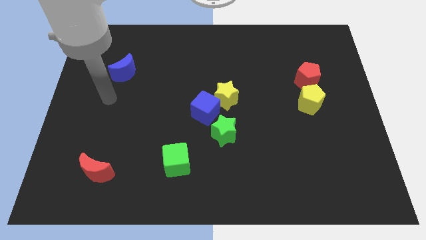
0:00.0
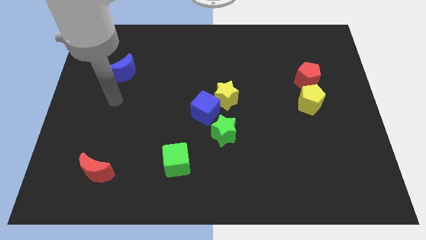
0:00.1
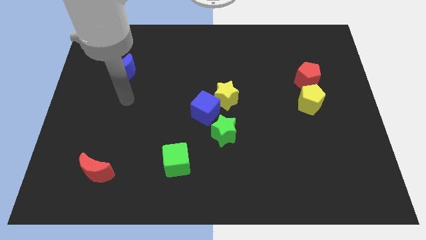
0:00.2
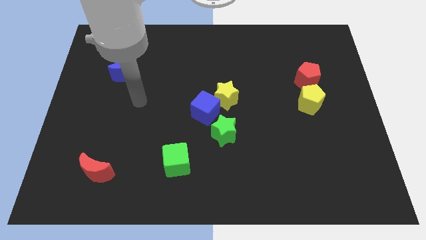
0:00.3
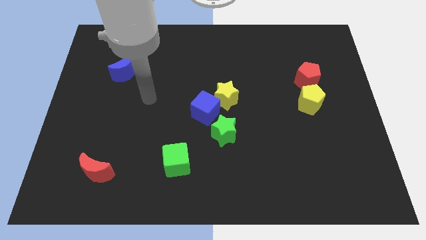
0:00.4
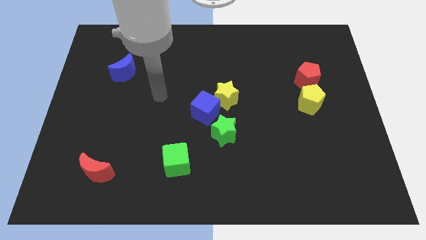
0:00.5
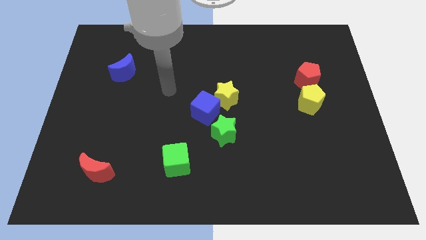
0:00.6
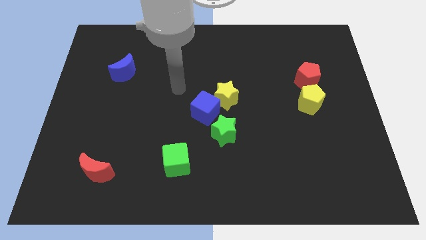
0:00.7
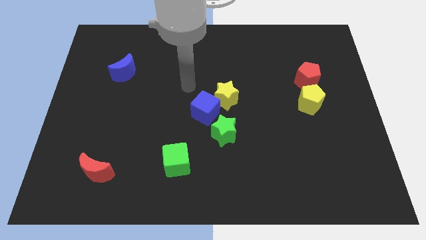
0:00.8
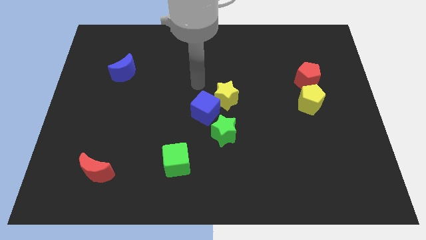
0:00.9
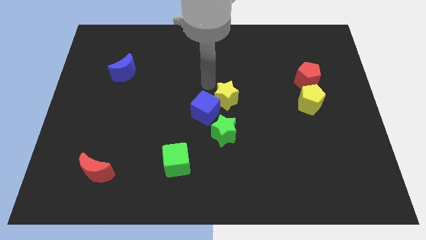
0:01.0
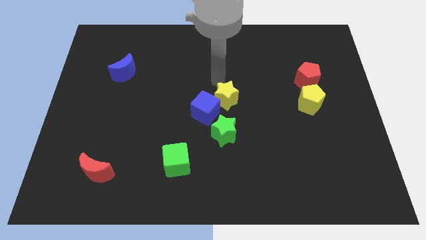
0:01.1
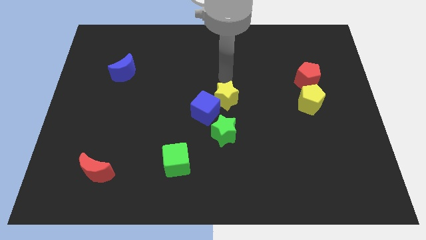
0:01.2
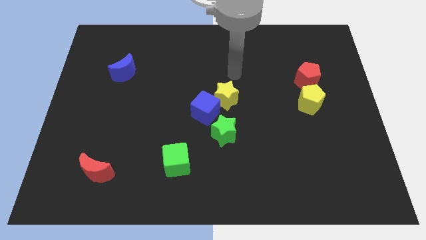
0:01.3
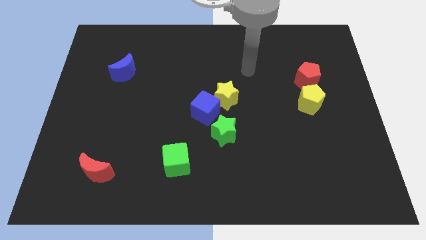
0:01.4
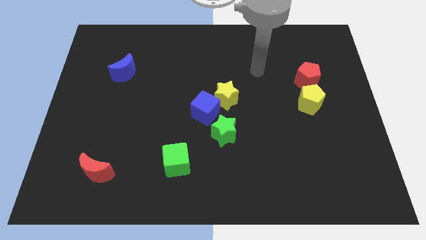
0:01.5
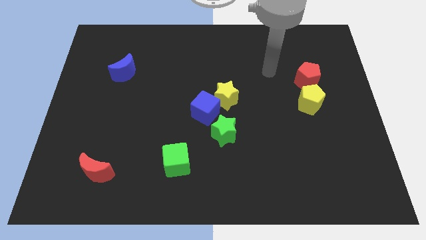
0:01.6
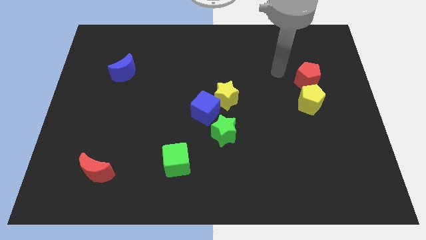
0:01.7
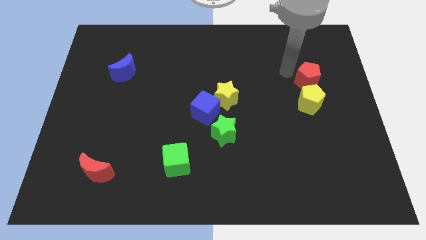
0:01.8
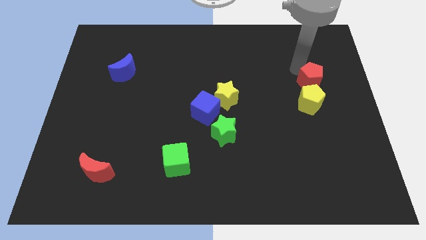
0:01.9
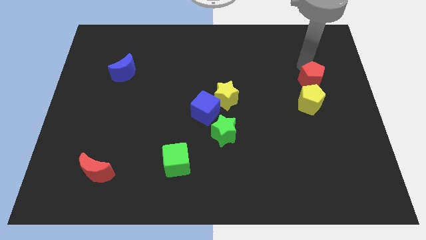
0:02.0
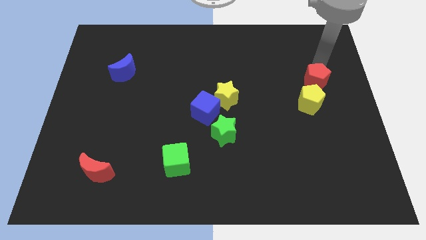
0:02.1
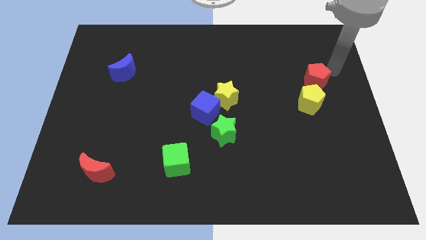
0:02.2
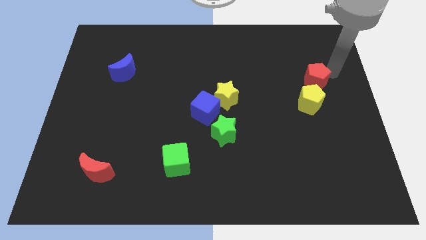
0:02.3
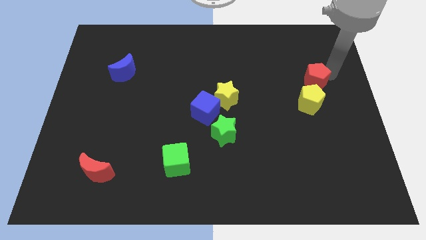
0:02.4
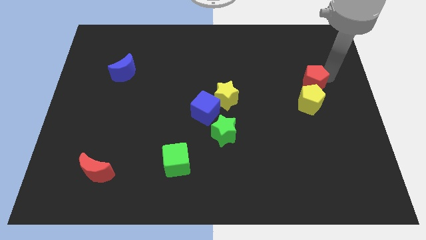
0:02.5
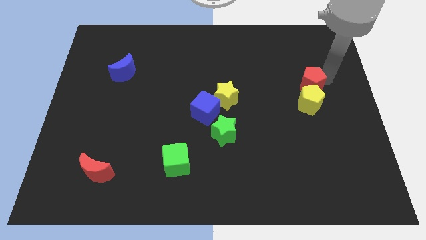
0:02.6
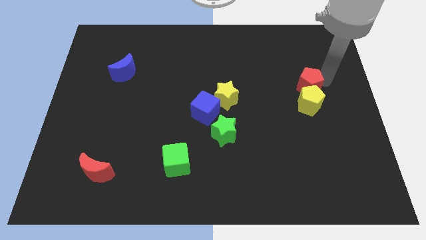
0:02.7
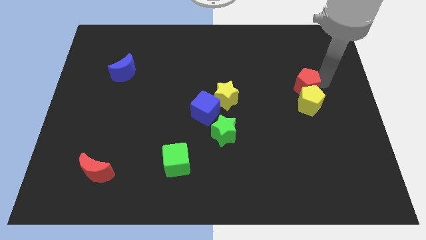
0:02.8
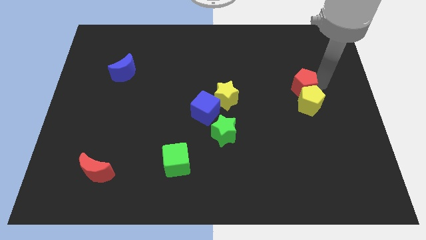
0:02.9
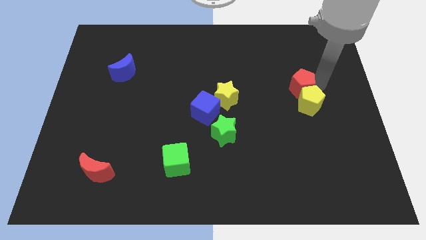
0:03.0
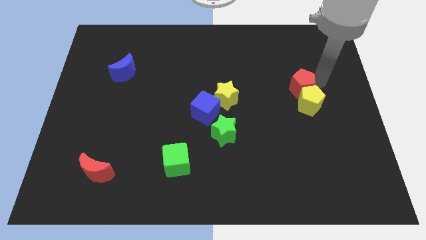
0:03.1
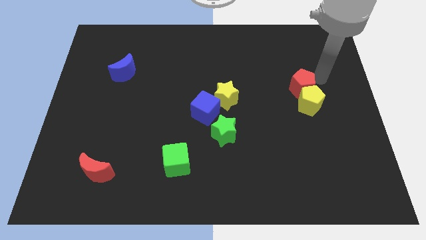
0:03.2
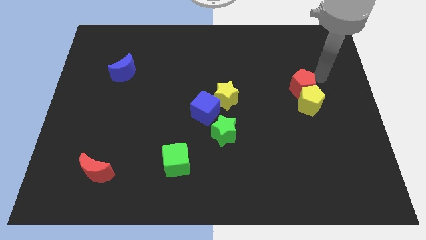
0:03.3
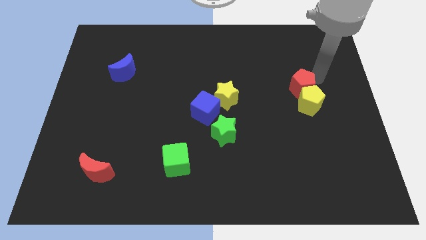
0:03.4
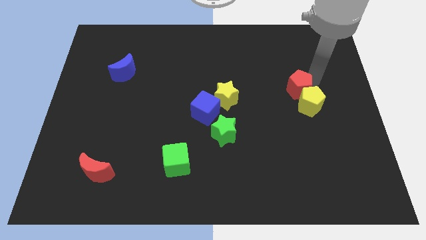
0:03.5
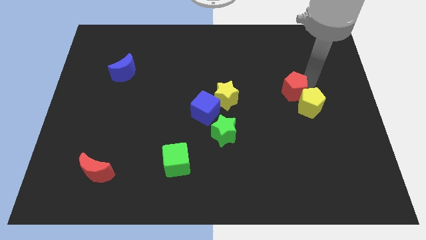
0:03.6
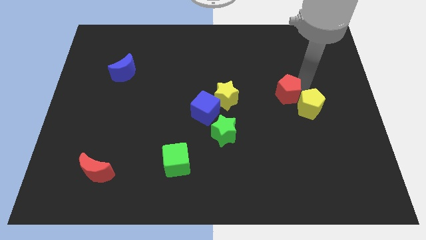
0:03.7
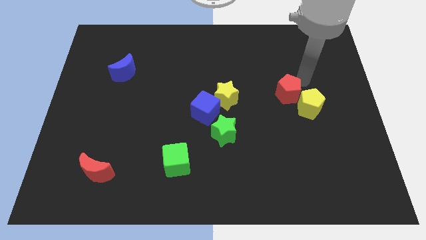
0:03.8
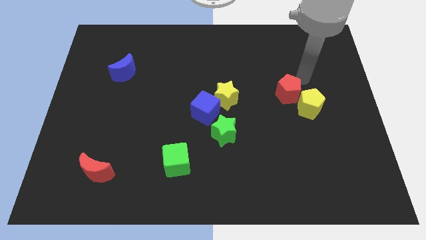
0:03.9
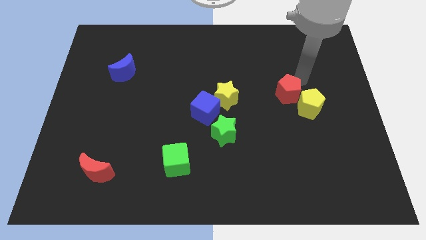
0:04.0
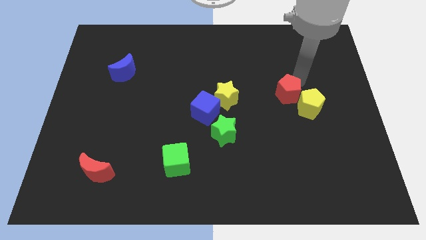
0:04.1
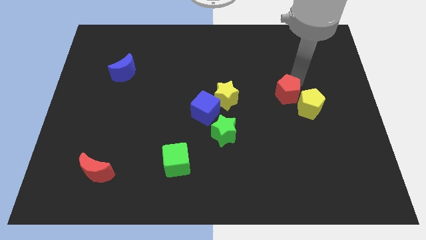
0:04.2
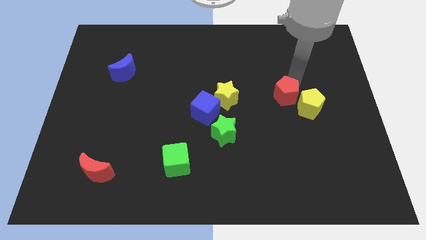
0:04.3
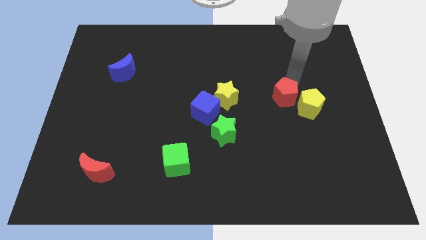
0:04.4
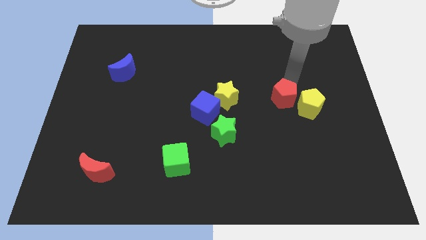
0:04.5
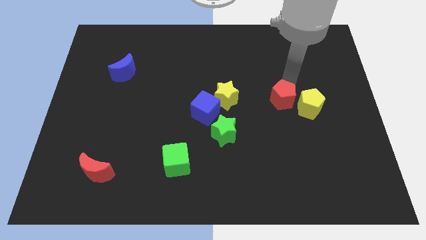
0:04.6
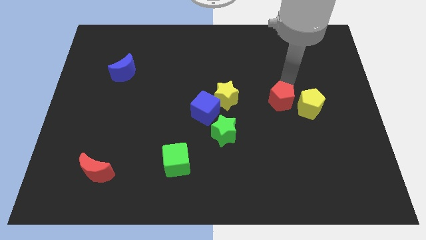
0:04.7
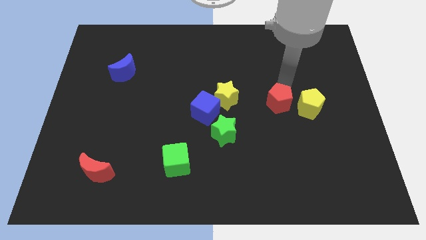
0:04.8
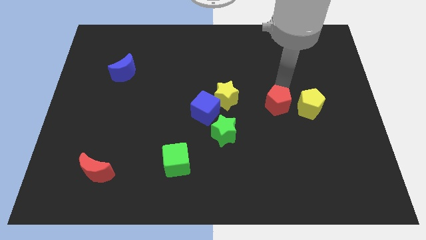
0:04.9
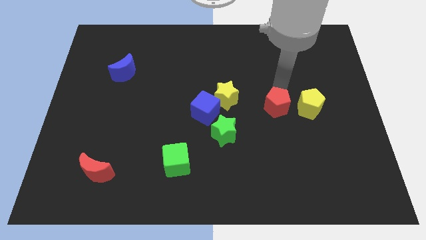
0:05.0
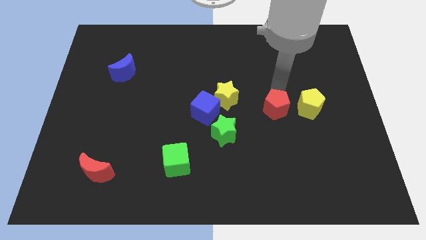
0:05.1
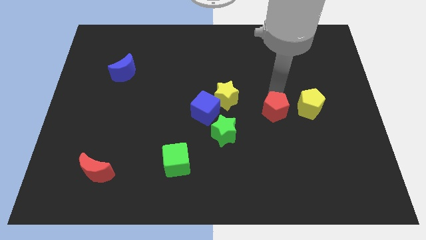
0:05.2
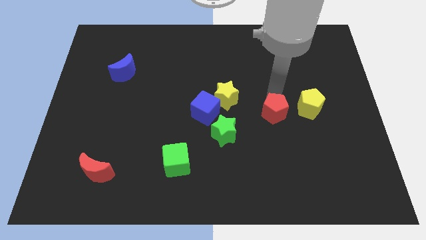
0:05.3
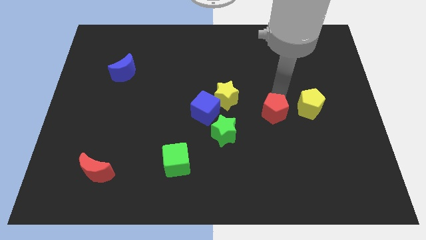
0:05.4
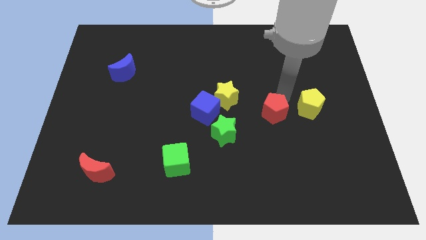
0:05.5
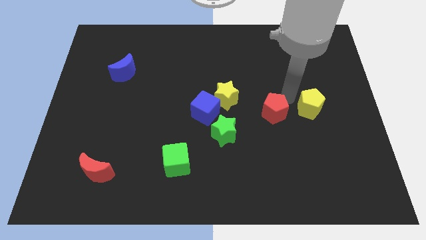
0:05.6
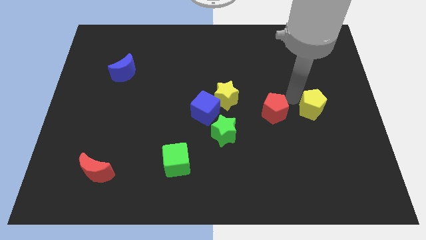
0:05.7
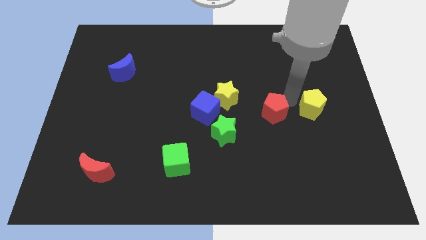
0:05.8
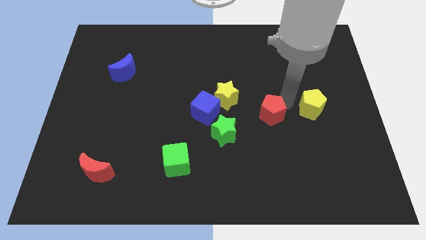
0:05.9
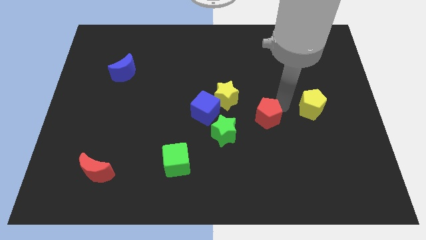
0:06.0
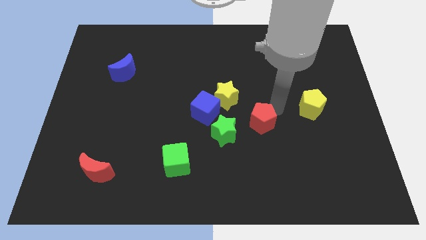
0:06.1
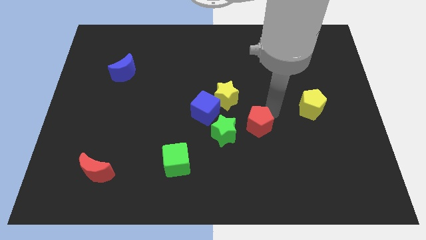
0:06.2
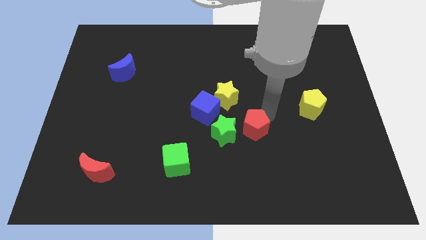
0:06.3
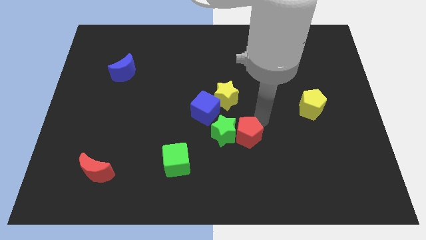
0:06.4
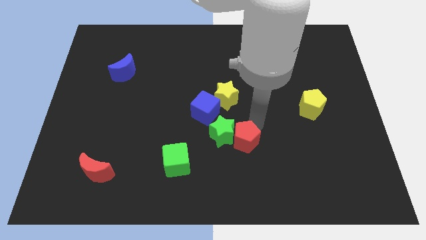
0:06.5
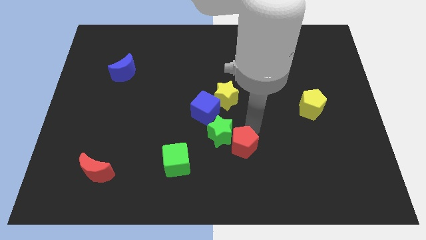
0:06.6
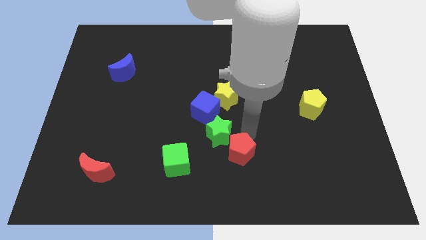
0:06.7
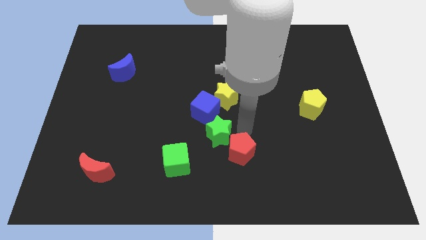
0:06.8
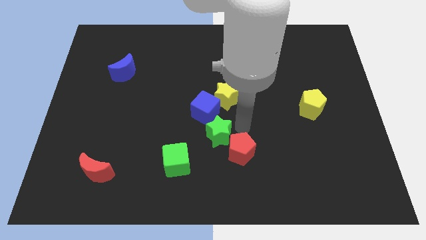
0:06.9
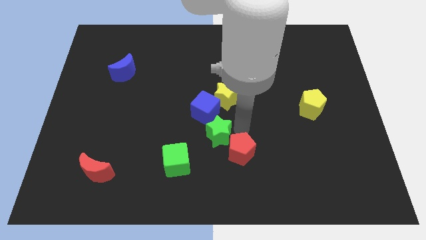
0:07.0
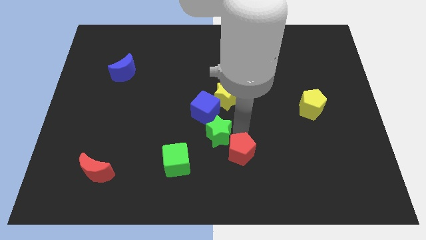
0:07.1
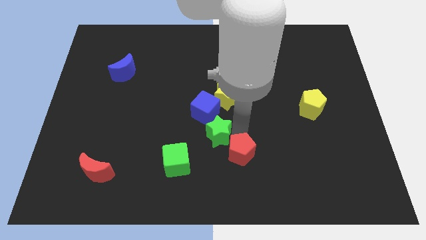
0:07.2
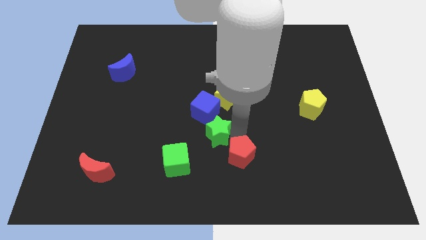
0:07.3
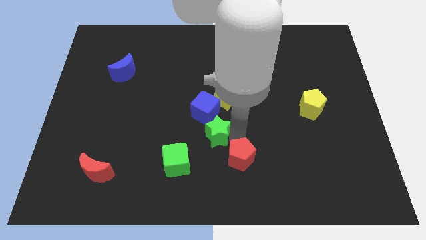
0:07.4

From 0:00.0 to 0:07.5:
slide the red pentagon to the bottom side
